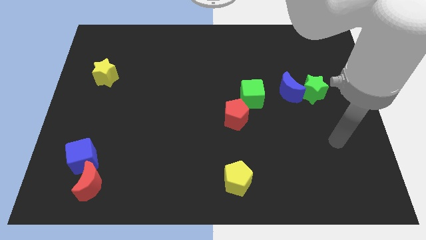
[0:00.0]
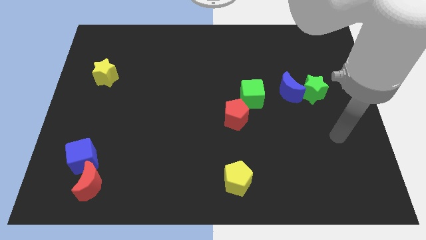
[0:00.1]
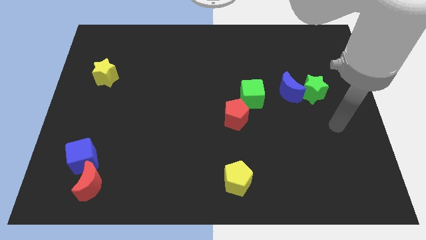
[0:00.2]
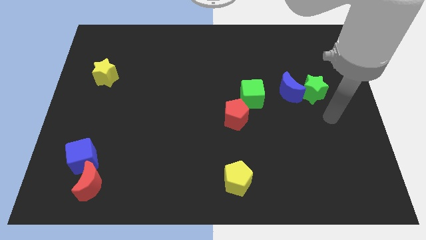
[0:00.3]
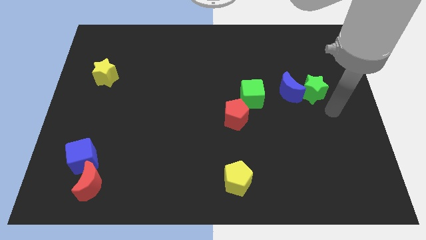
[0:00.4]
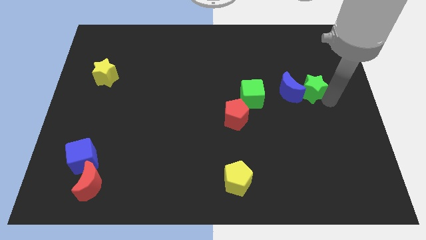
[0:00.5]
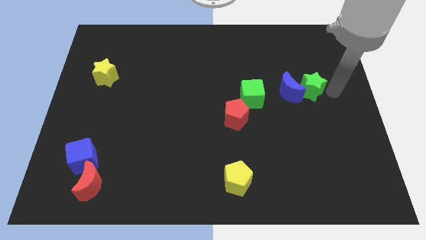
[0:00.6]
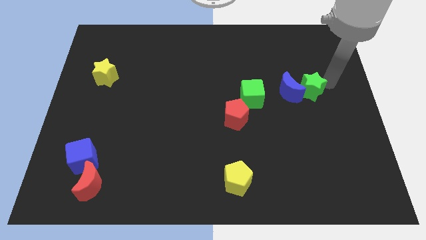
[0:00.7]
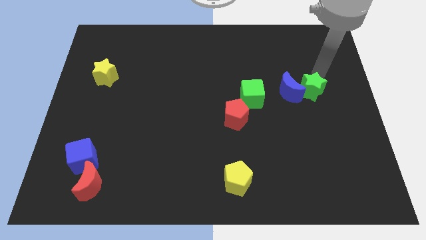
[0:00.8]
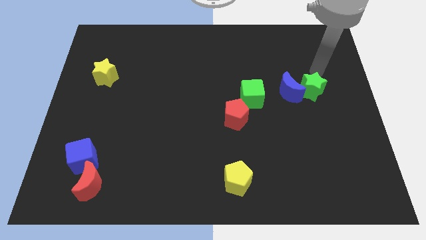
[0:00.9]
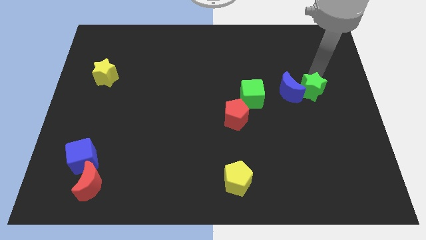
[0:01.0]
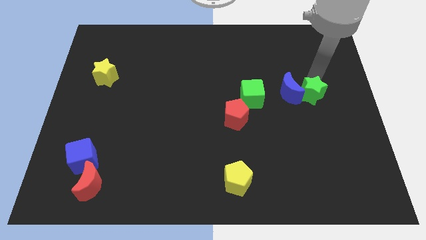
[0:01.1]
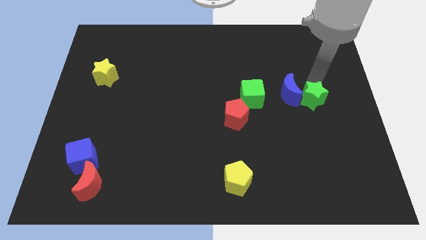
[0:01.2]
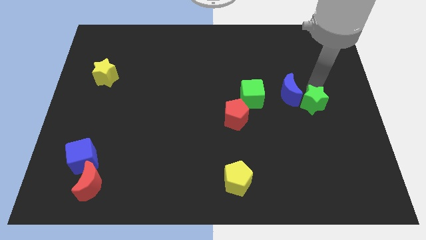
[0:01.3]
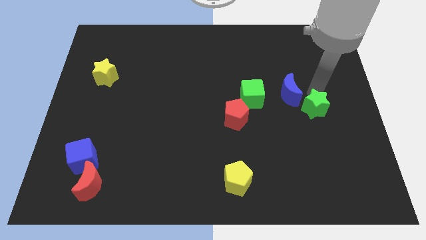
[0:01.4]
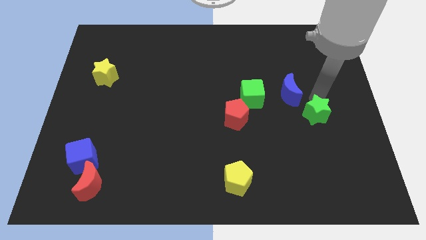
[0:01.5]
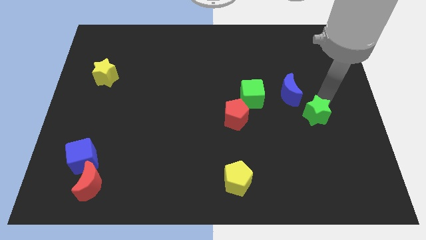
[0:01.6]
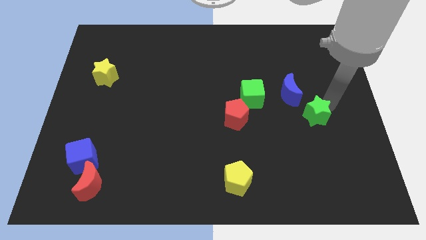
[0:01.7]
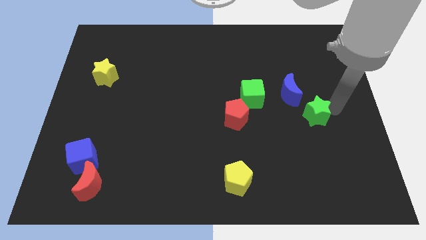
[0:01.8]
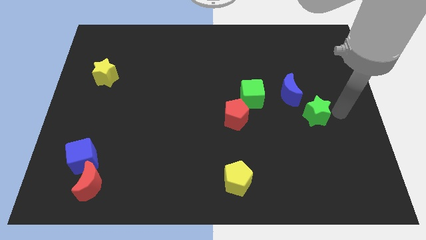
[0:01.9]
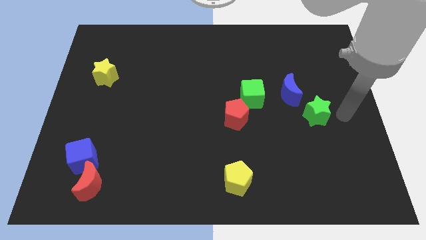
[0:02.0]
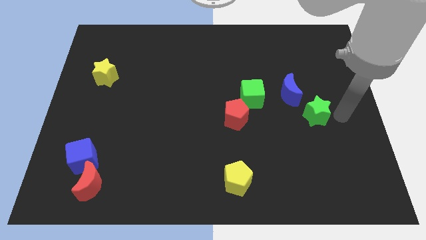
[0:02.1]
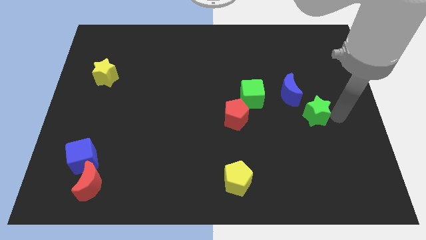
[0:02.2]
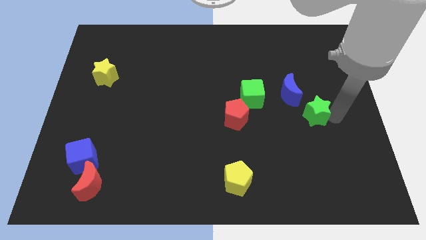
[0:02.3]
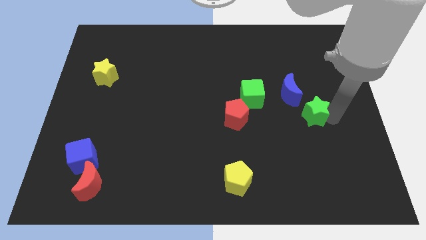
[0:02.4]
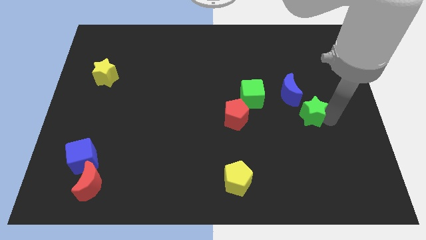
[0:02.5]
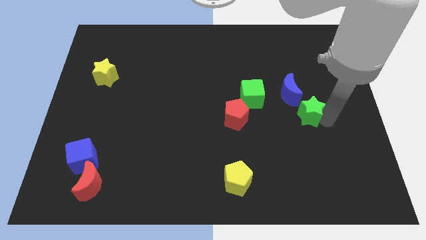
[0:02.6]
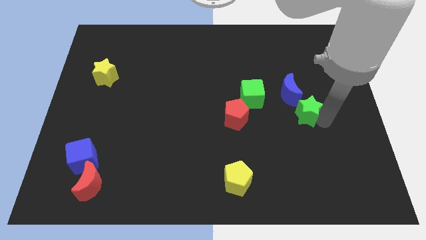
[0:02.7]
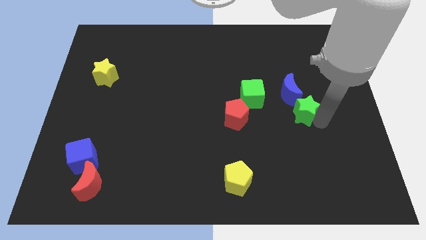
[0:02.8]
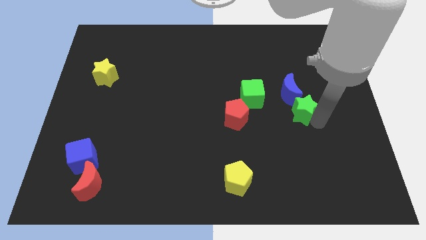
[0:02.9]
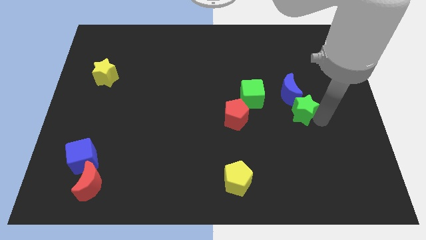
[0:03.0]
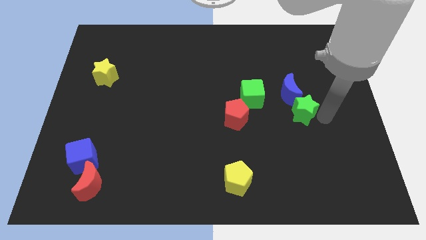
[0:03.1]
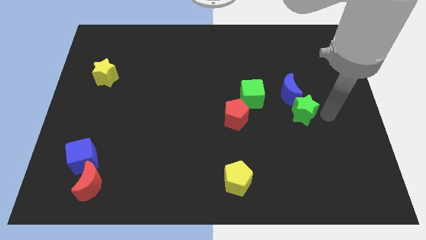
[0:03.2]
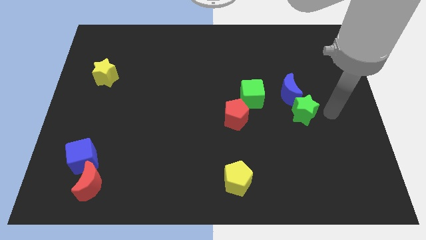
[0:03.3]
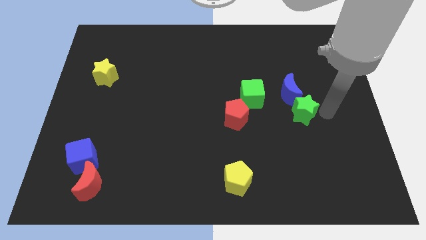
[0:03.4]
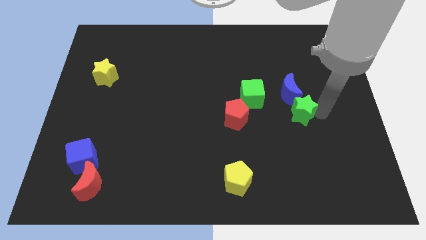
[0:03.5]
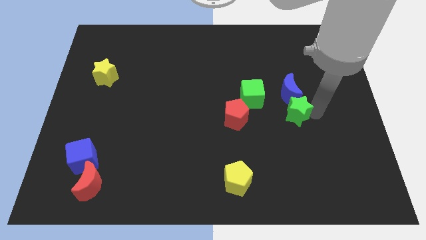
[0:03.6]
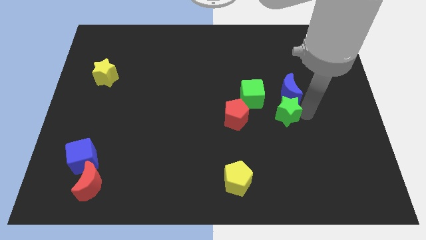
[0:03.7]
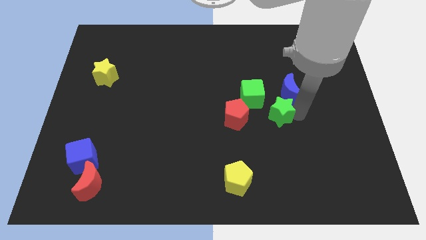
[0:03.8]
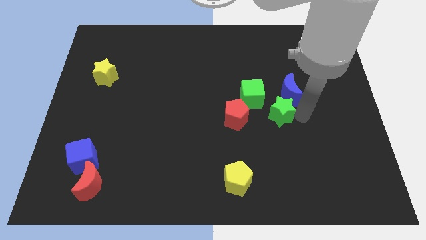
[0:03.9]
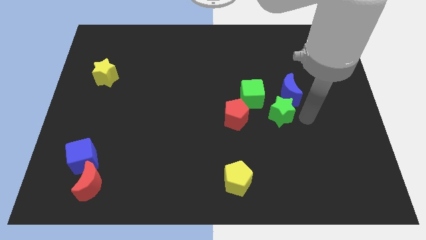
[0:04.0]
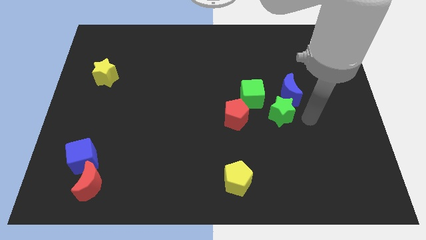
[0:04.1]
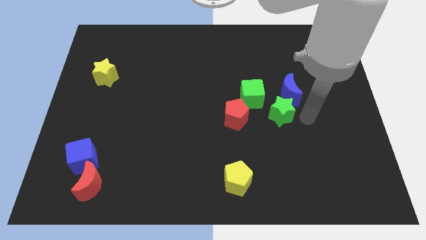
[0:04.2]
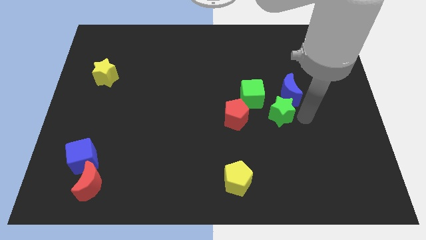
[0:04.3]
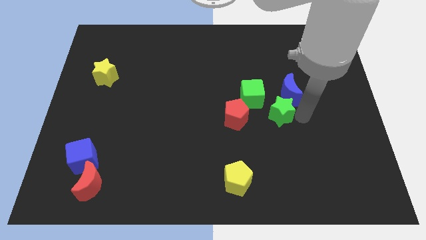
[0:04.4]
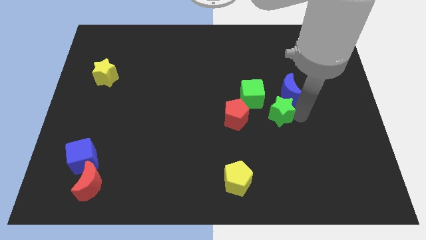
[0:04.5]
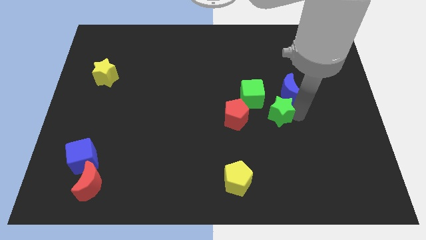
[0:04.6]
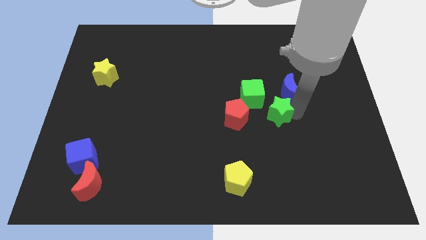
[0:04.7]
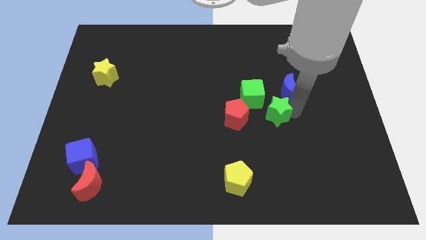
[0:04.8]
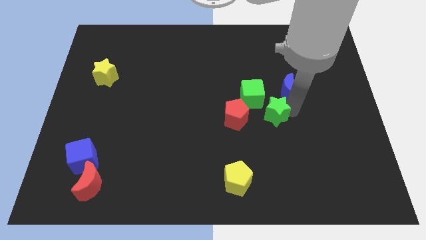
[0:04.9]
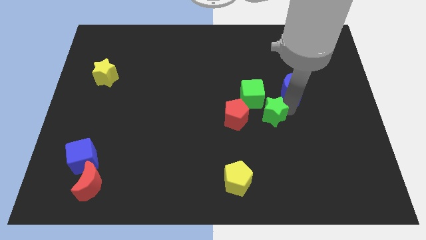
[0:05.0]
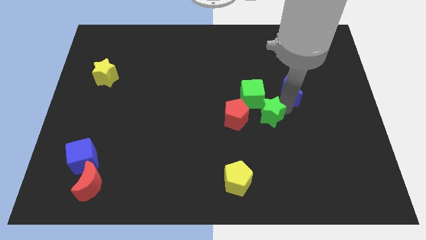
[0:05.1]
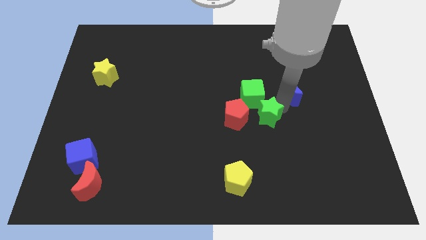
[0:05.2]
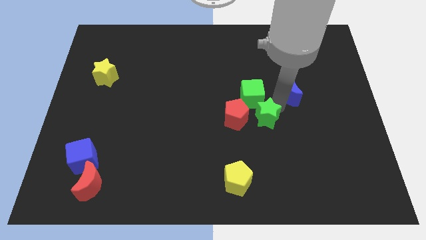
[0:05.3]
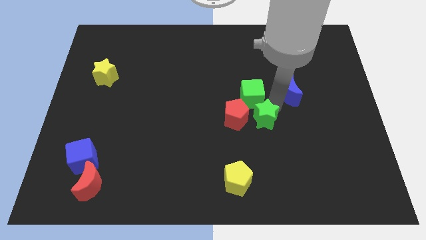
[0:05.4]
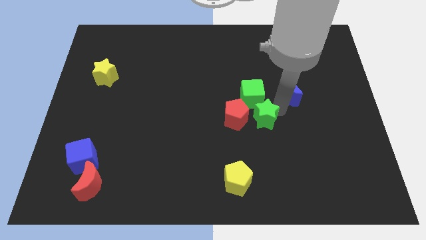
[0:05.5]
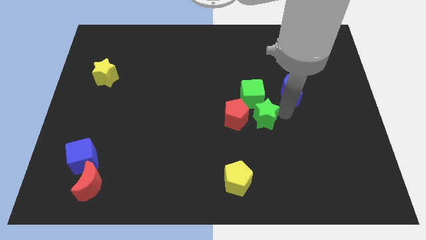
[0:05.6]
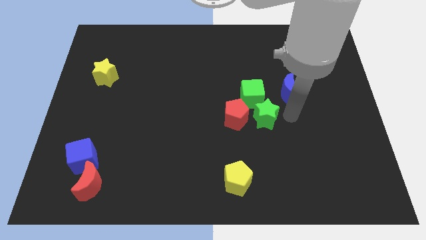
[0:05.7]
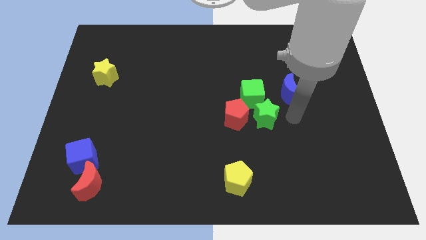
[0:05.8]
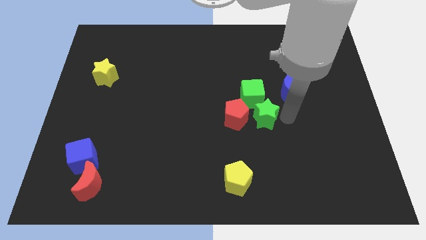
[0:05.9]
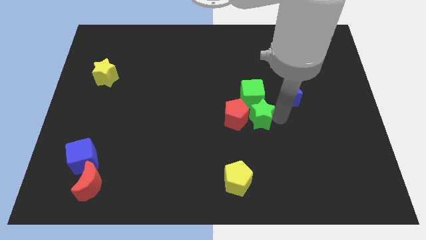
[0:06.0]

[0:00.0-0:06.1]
push the green star towards the red pentagon

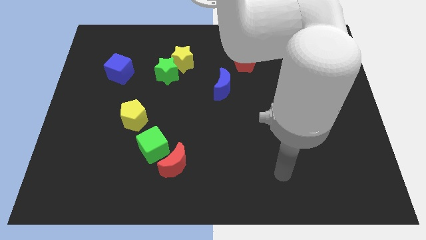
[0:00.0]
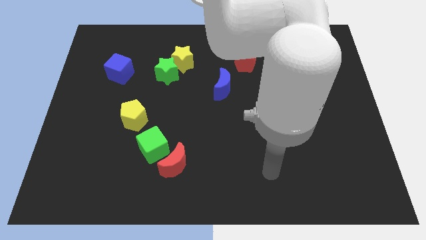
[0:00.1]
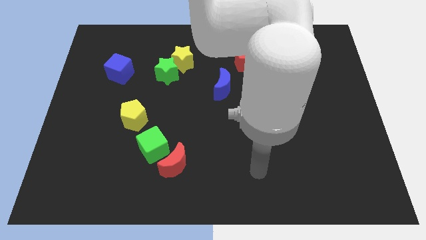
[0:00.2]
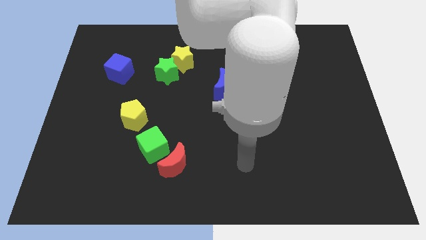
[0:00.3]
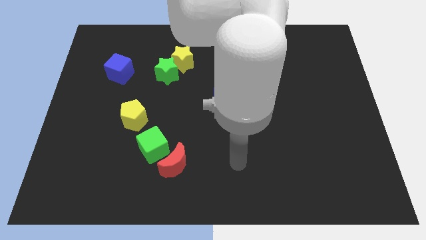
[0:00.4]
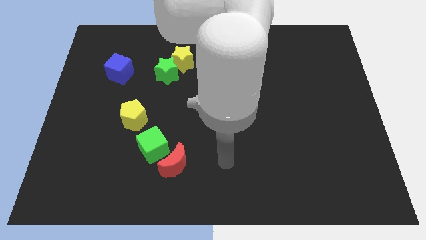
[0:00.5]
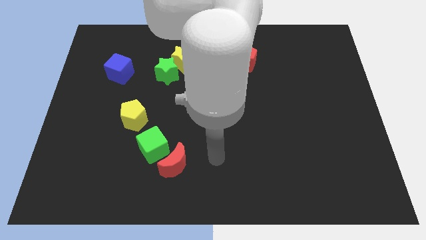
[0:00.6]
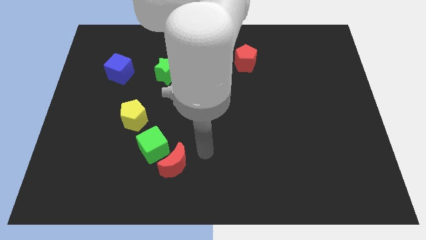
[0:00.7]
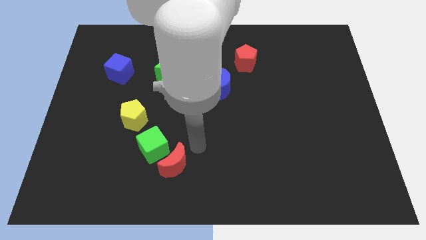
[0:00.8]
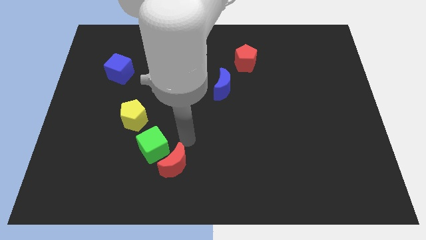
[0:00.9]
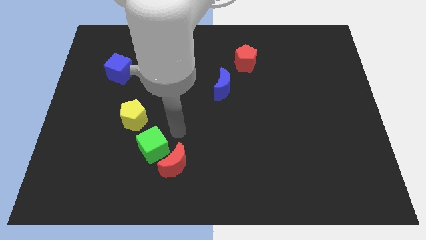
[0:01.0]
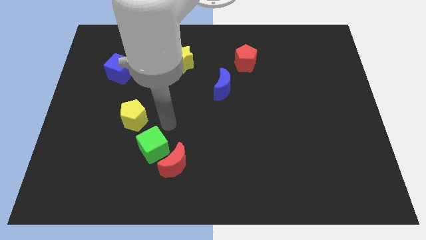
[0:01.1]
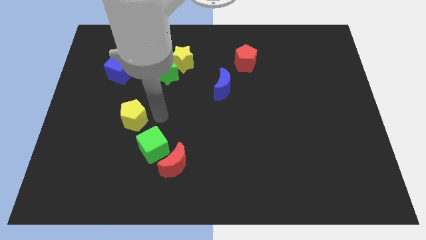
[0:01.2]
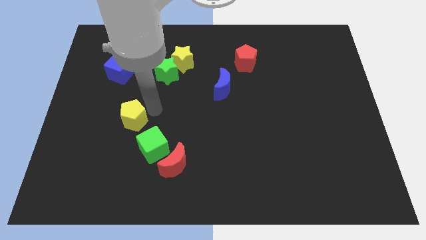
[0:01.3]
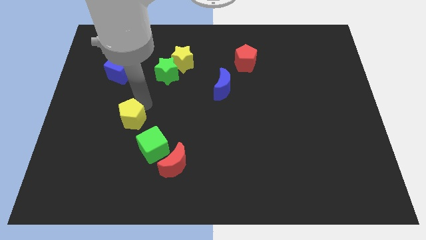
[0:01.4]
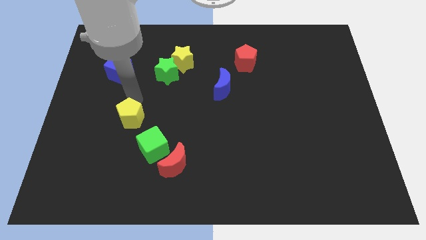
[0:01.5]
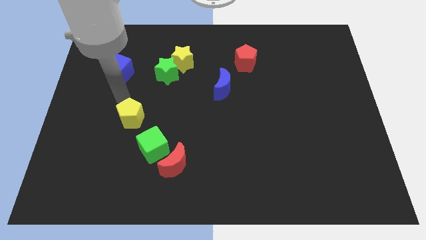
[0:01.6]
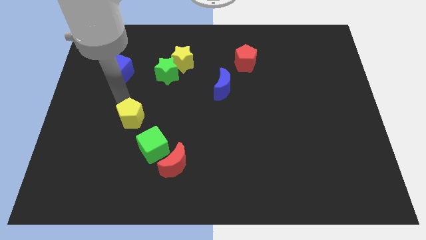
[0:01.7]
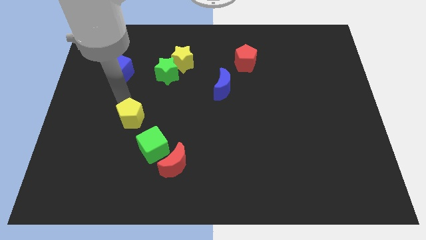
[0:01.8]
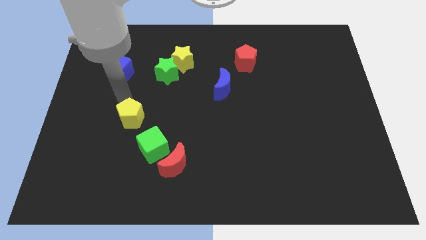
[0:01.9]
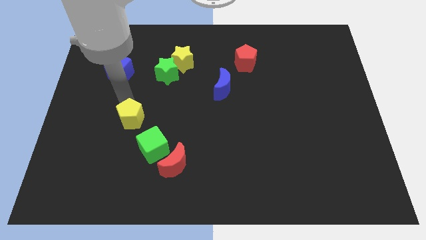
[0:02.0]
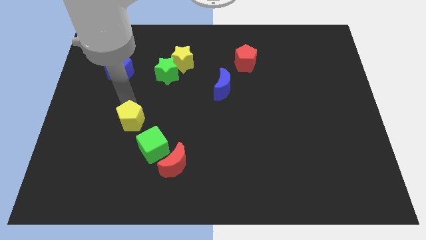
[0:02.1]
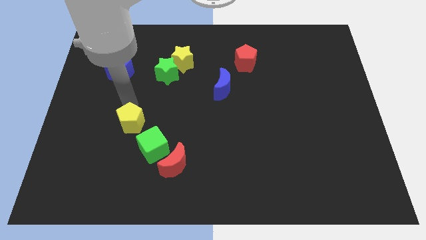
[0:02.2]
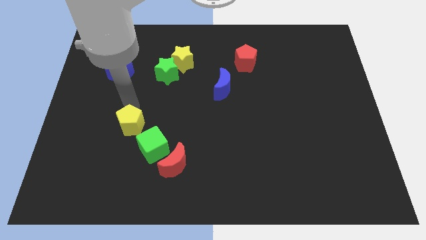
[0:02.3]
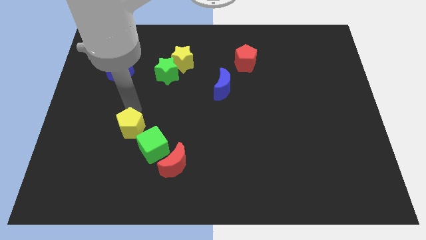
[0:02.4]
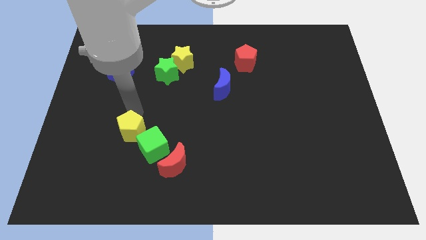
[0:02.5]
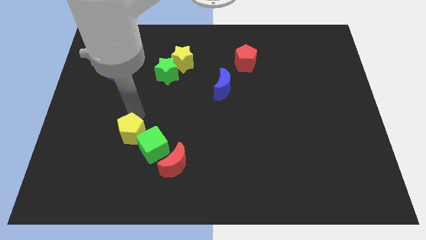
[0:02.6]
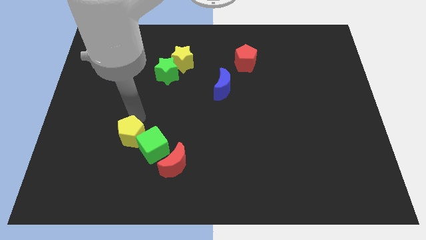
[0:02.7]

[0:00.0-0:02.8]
push the yellow pentagon towards the green cube
